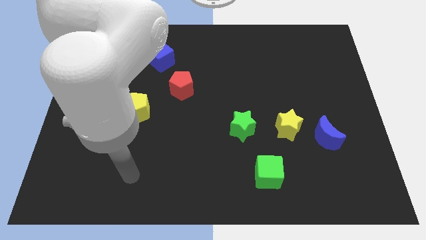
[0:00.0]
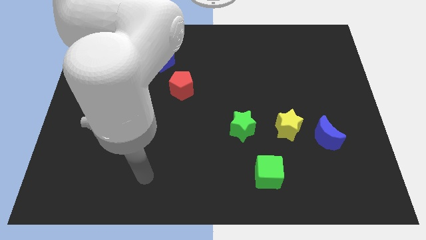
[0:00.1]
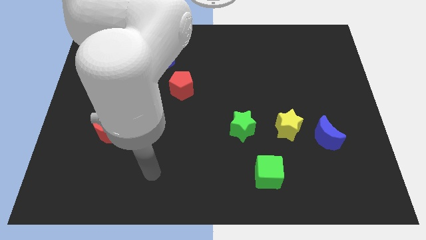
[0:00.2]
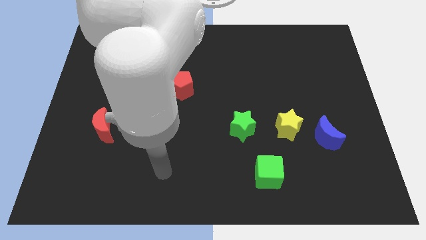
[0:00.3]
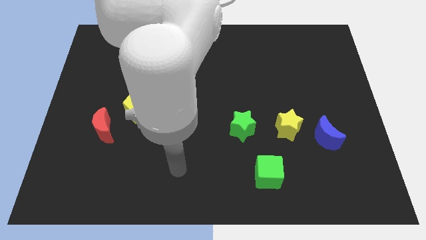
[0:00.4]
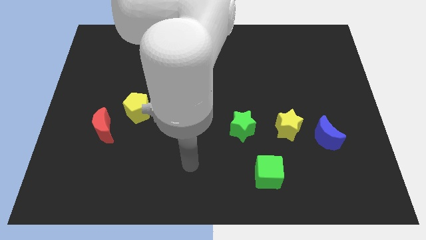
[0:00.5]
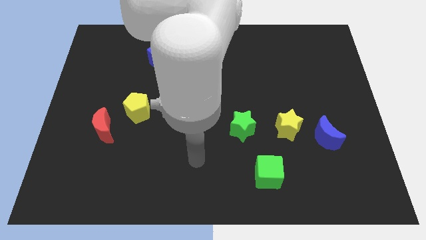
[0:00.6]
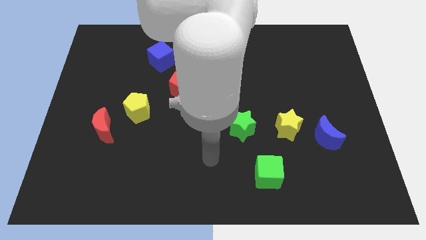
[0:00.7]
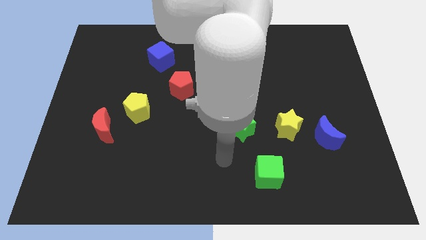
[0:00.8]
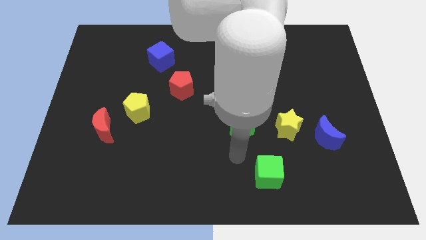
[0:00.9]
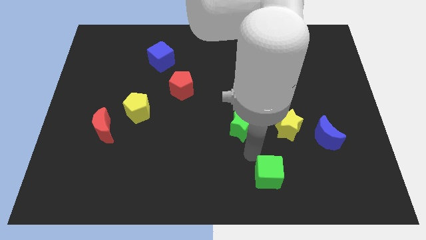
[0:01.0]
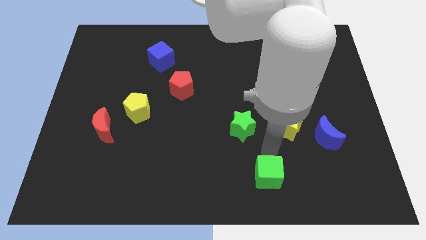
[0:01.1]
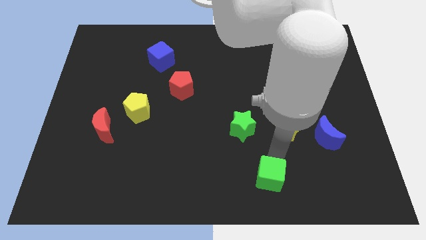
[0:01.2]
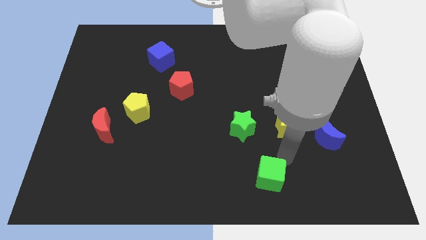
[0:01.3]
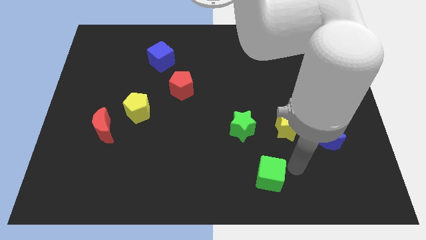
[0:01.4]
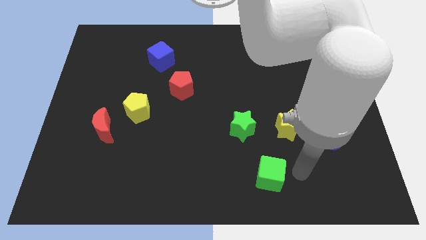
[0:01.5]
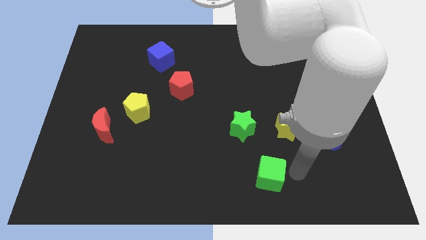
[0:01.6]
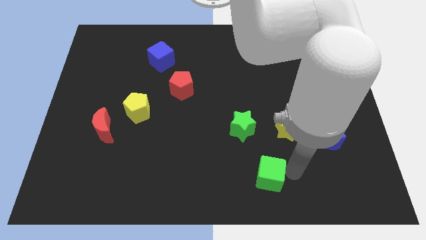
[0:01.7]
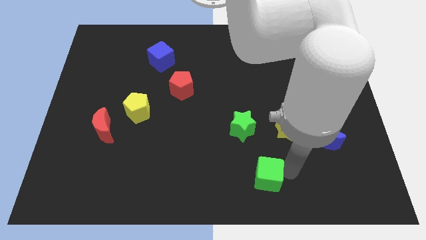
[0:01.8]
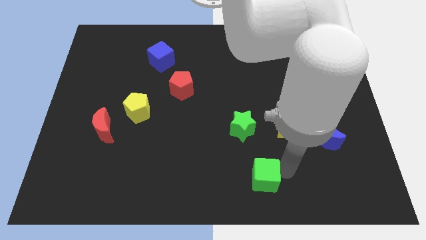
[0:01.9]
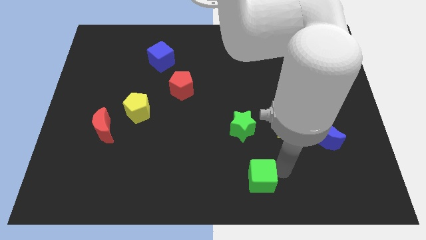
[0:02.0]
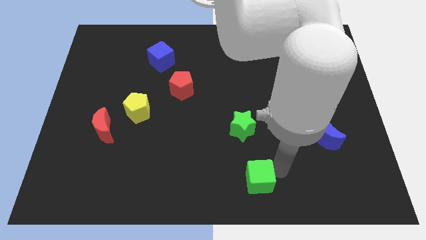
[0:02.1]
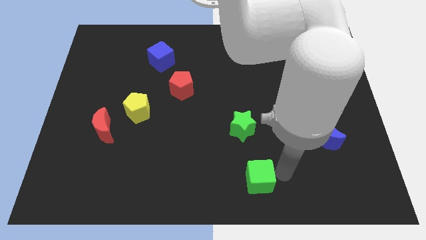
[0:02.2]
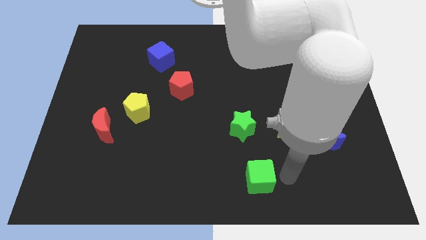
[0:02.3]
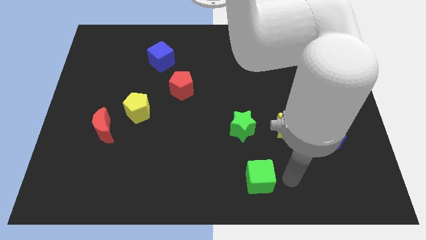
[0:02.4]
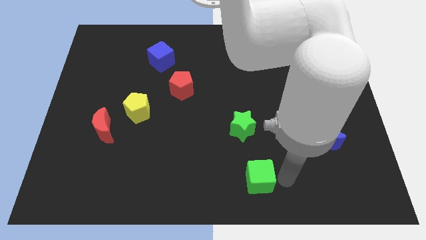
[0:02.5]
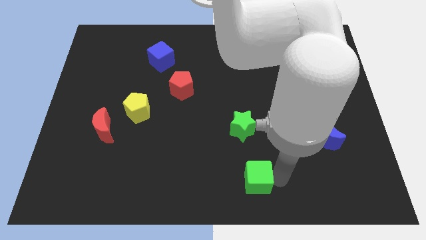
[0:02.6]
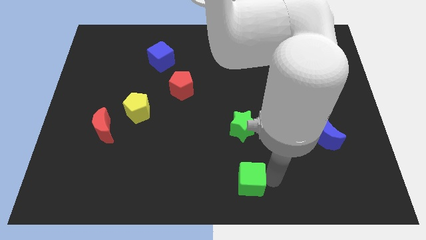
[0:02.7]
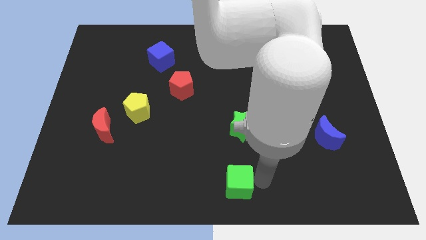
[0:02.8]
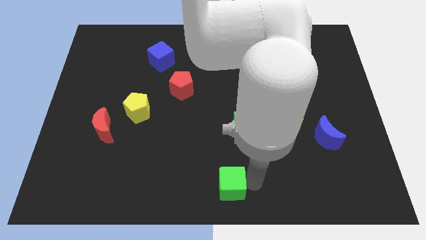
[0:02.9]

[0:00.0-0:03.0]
push the green cube a little bit left

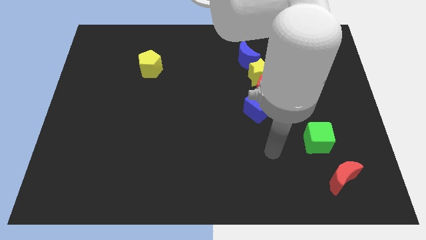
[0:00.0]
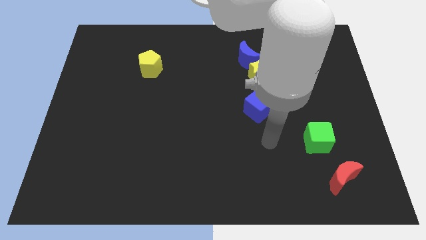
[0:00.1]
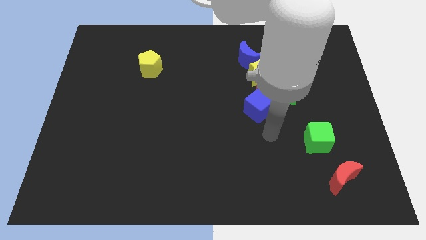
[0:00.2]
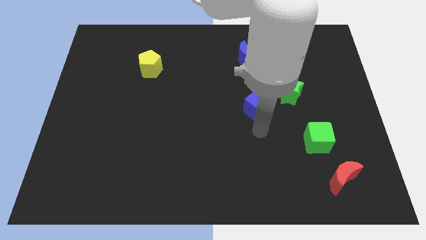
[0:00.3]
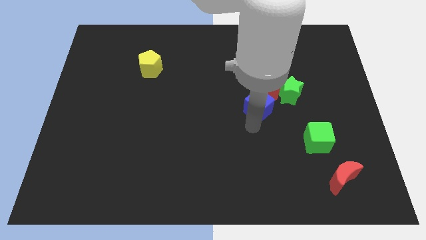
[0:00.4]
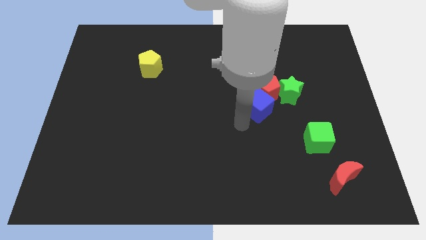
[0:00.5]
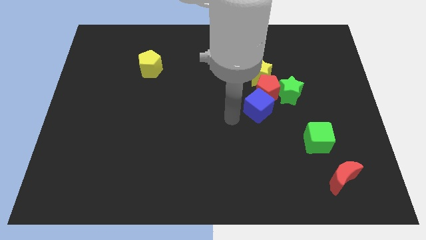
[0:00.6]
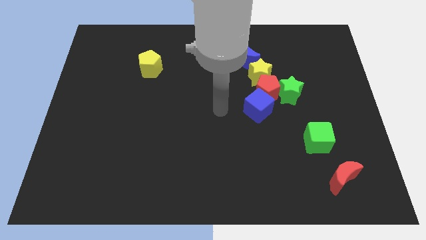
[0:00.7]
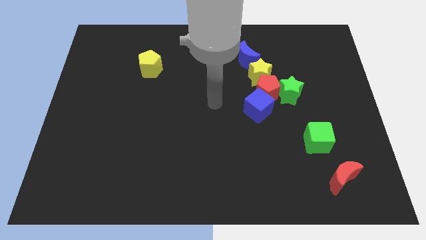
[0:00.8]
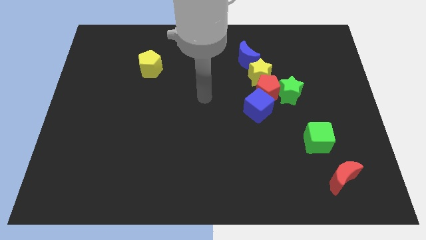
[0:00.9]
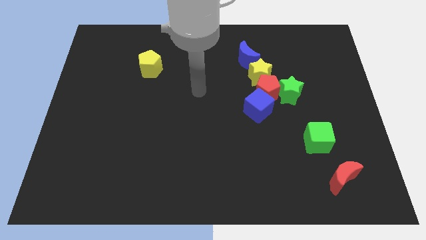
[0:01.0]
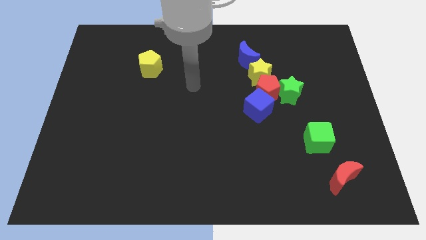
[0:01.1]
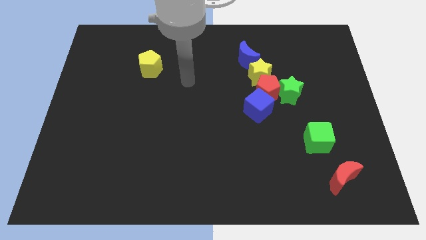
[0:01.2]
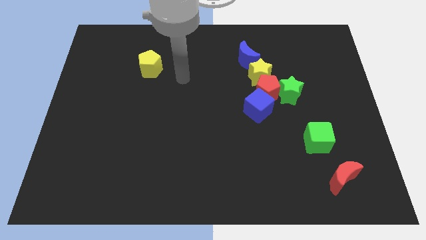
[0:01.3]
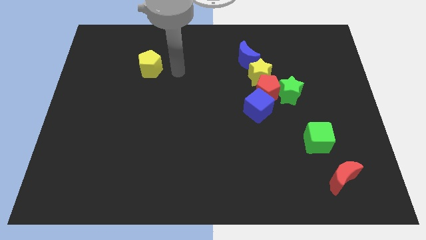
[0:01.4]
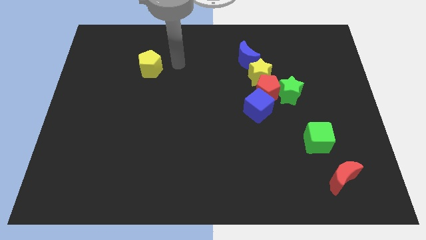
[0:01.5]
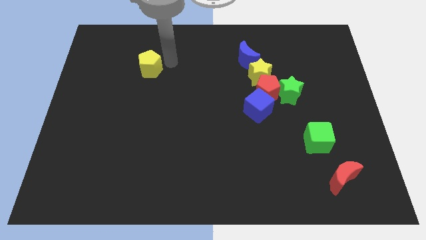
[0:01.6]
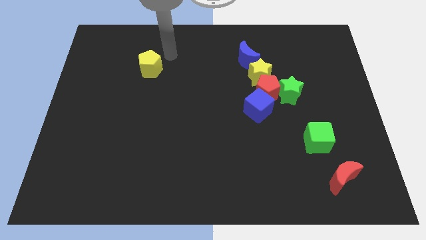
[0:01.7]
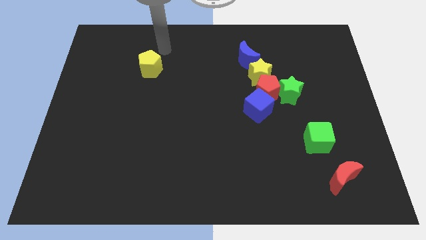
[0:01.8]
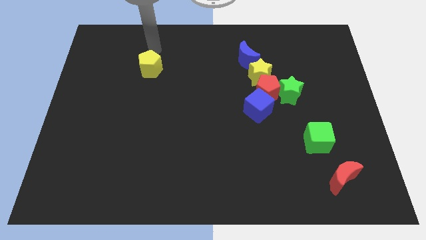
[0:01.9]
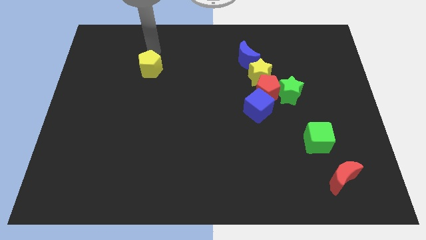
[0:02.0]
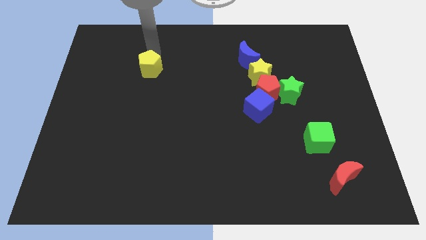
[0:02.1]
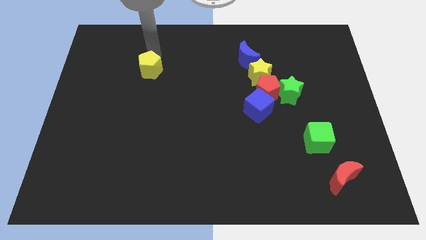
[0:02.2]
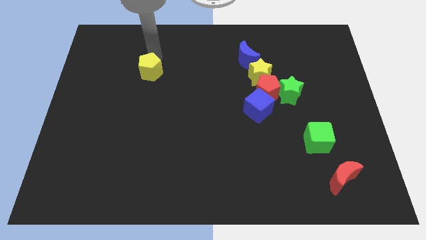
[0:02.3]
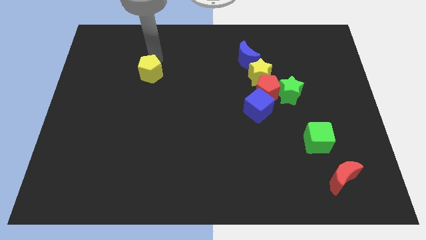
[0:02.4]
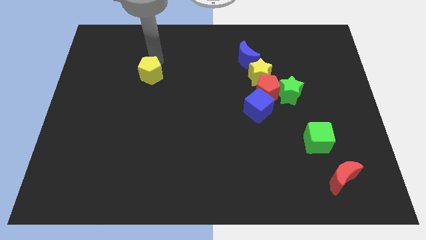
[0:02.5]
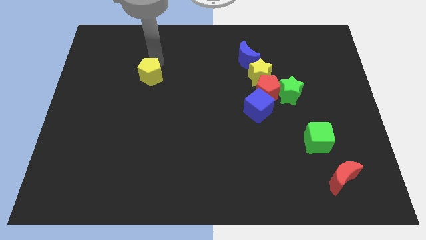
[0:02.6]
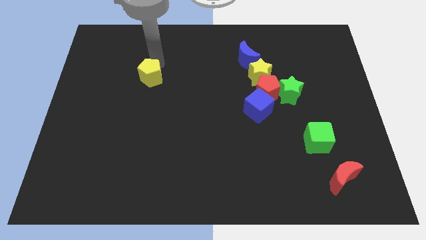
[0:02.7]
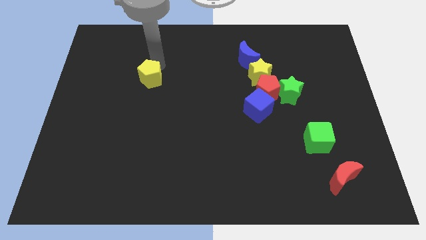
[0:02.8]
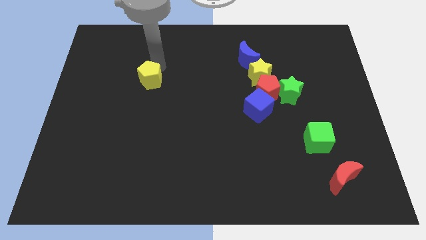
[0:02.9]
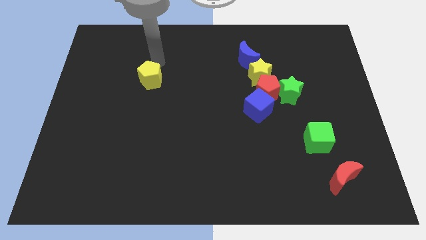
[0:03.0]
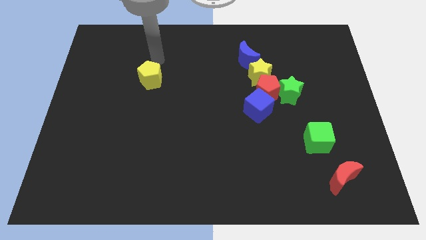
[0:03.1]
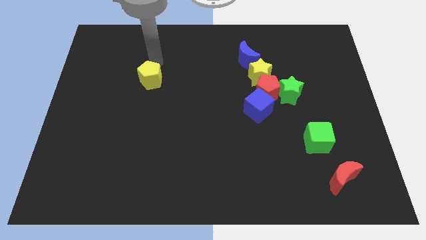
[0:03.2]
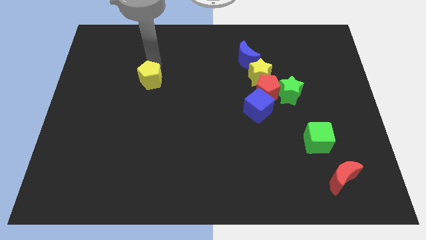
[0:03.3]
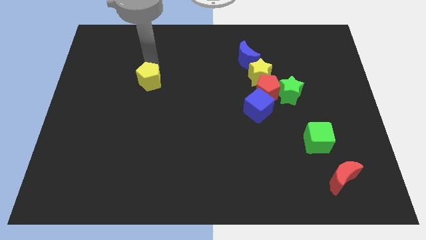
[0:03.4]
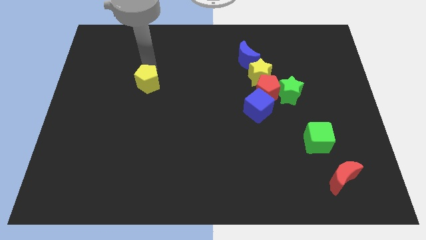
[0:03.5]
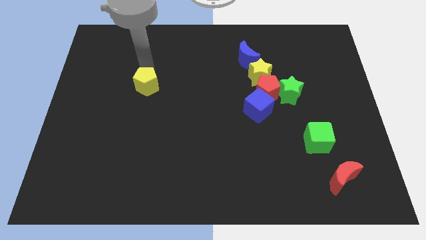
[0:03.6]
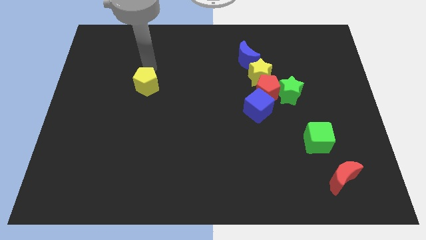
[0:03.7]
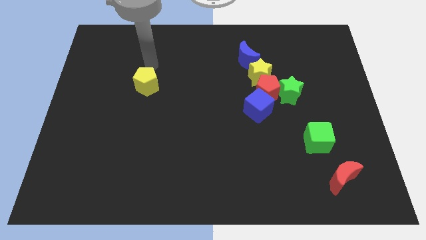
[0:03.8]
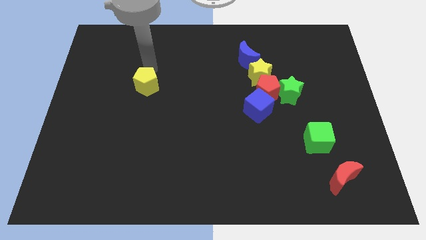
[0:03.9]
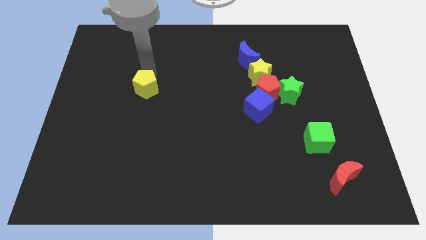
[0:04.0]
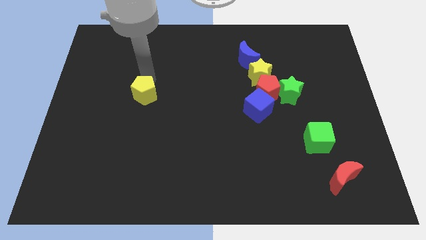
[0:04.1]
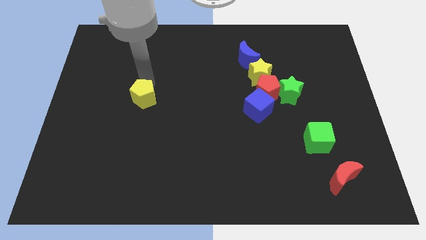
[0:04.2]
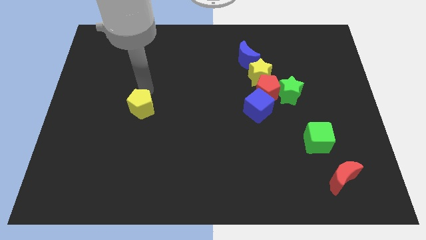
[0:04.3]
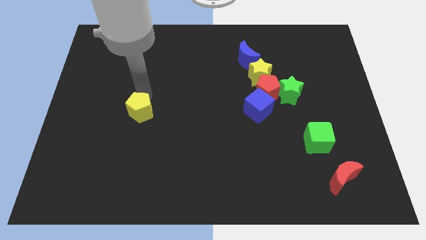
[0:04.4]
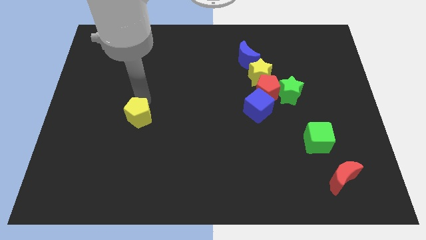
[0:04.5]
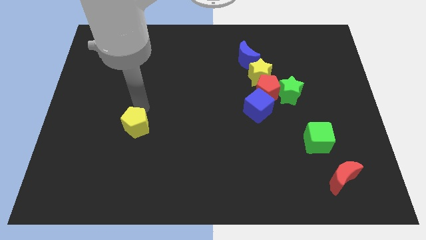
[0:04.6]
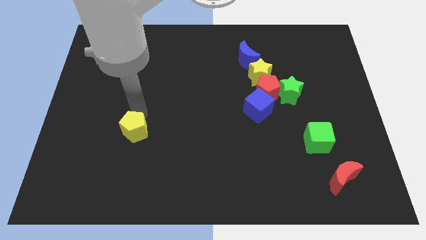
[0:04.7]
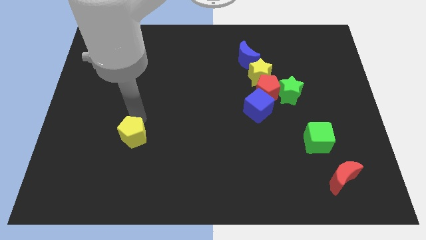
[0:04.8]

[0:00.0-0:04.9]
slide the yellow pentagon down

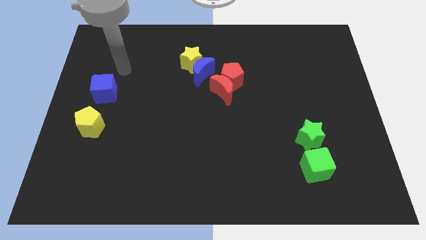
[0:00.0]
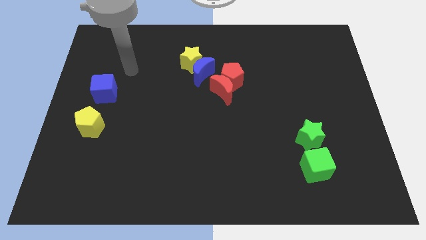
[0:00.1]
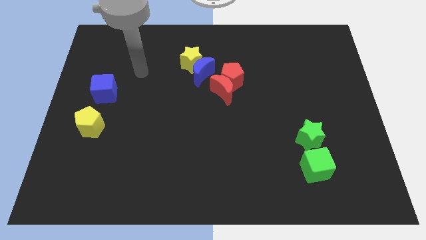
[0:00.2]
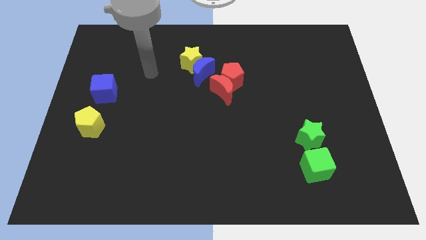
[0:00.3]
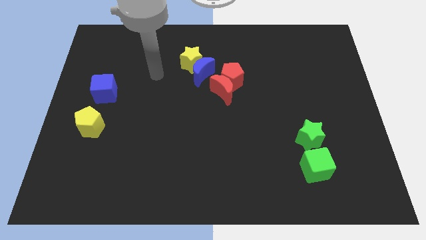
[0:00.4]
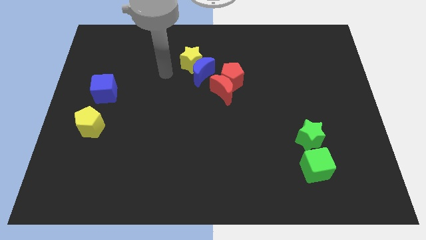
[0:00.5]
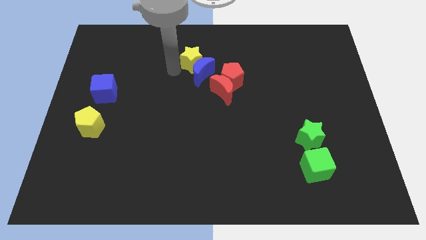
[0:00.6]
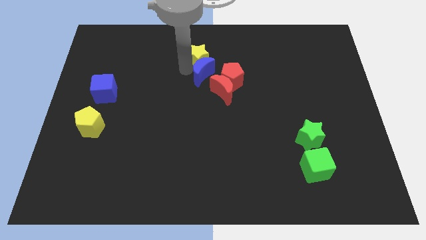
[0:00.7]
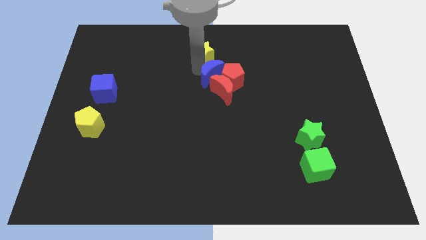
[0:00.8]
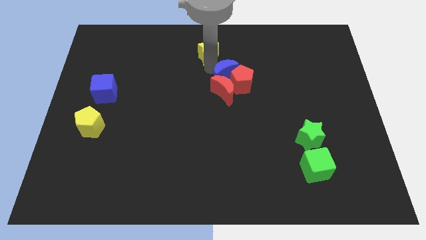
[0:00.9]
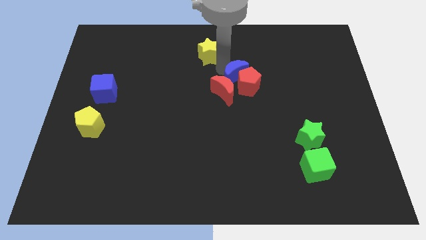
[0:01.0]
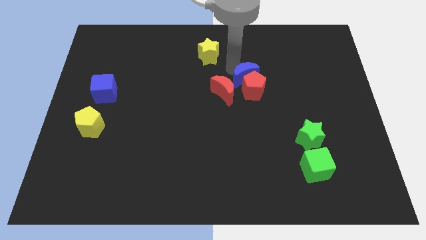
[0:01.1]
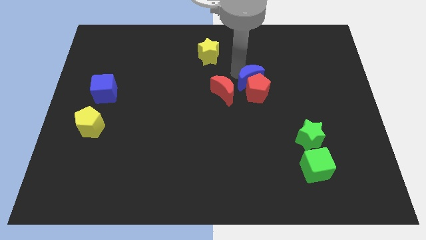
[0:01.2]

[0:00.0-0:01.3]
push the red pentagon a little bit downwards and right diagonally
